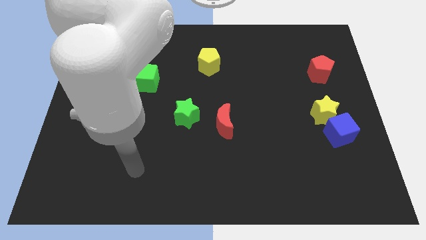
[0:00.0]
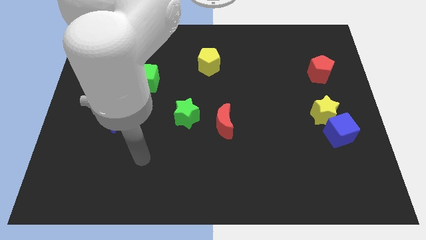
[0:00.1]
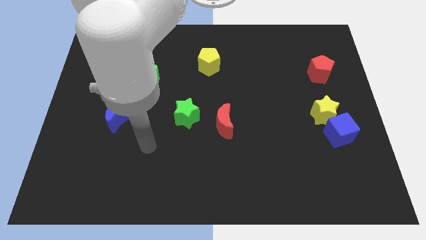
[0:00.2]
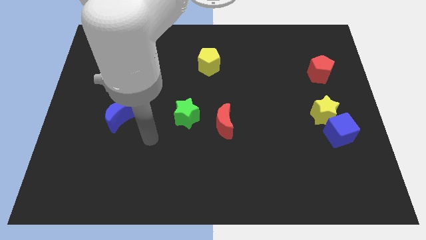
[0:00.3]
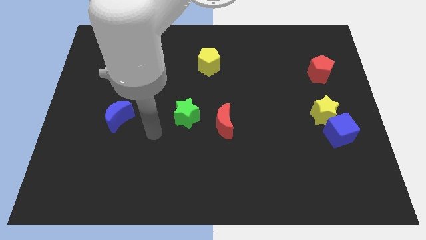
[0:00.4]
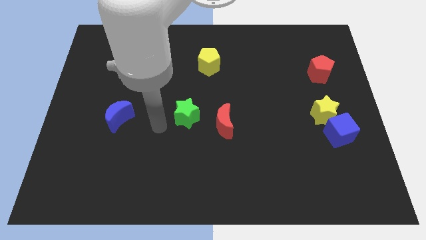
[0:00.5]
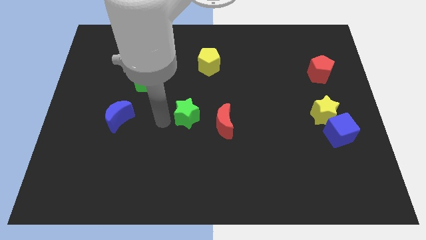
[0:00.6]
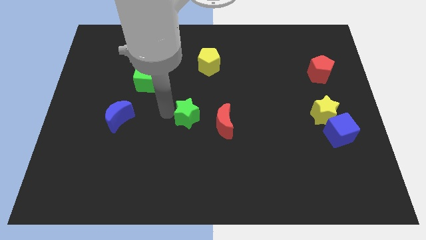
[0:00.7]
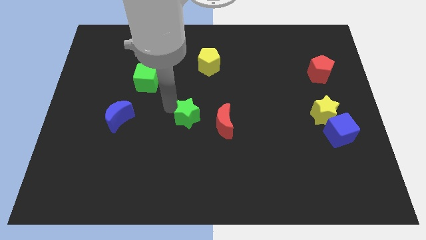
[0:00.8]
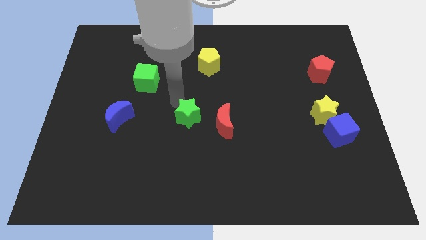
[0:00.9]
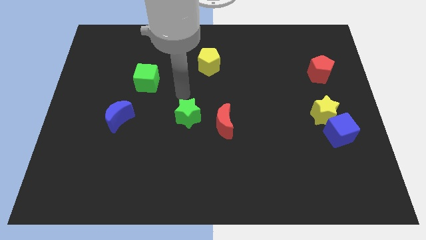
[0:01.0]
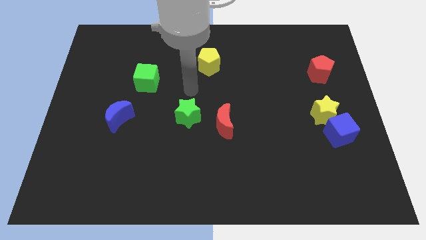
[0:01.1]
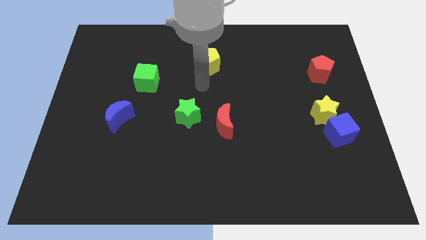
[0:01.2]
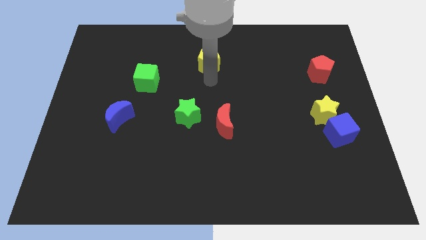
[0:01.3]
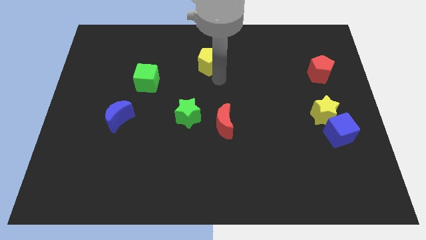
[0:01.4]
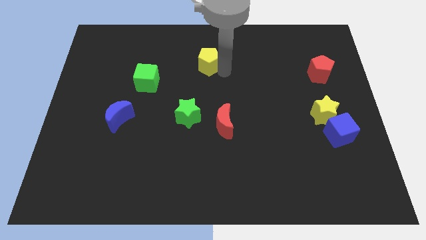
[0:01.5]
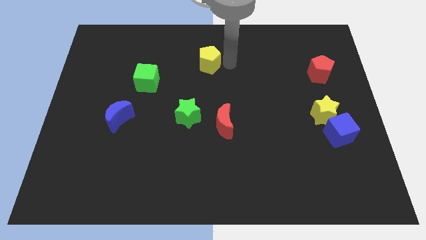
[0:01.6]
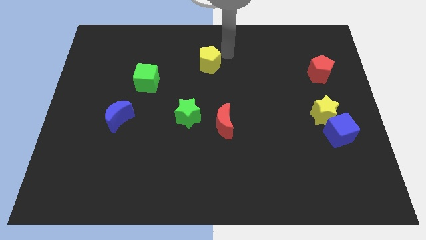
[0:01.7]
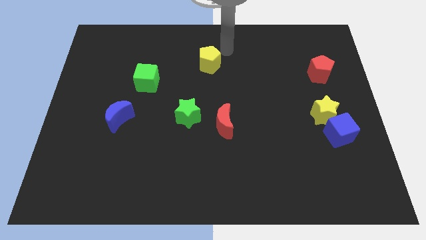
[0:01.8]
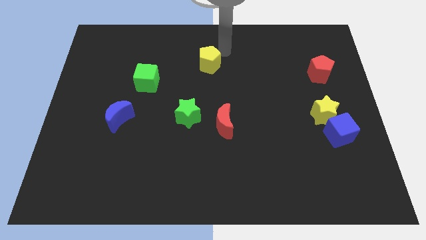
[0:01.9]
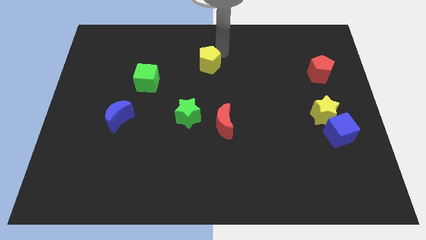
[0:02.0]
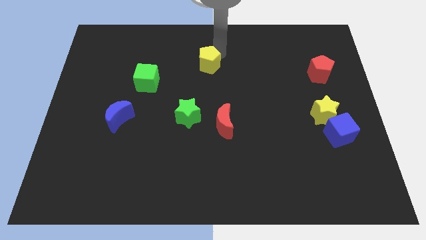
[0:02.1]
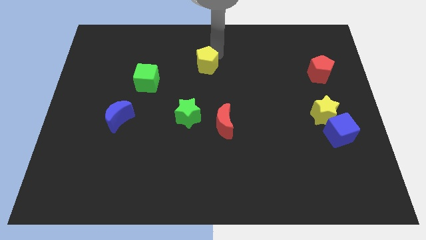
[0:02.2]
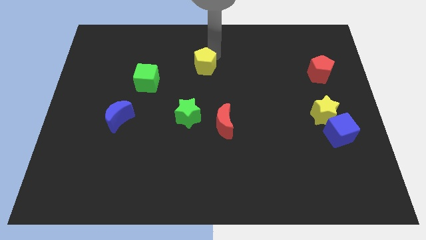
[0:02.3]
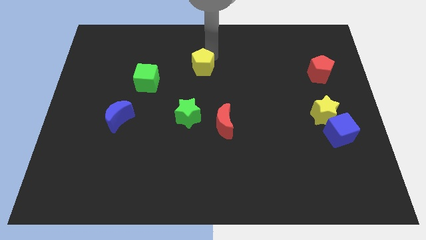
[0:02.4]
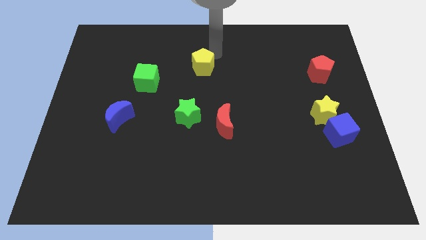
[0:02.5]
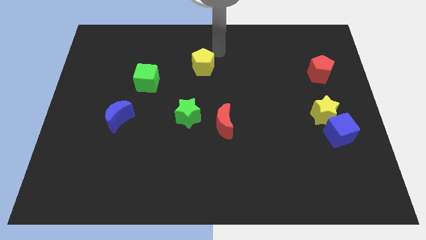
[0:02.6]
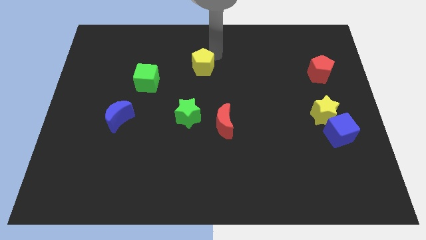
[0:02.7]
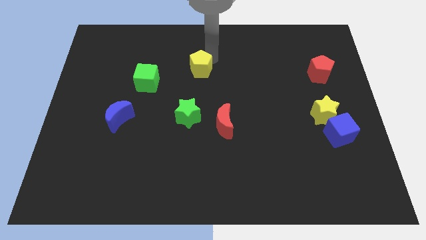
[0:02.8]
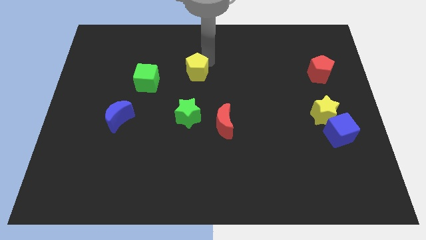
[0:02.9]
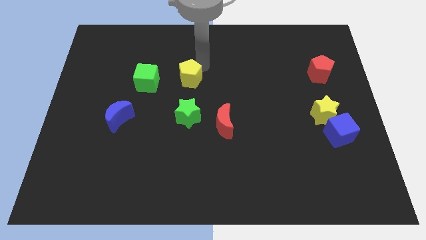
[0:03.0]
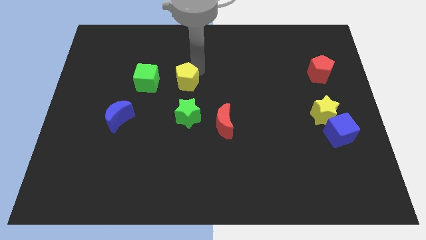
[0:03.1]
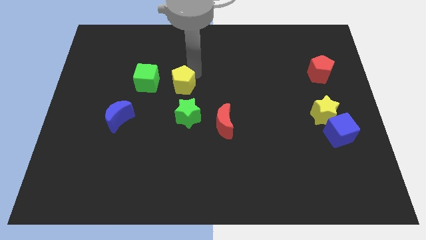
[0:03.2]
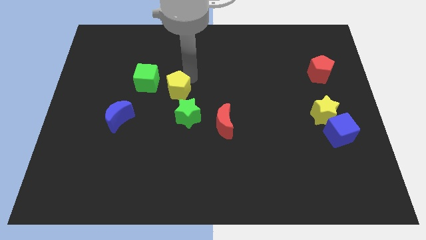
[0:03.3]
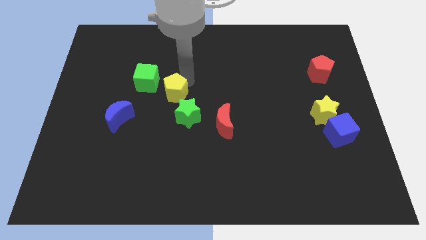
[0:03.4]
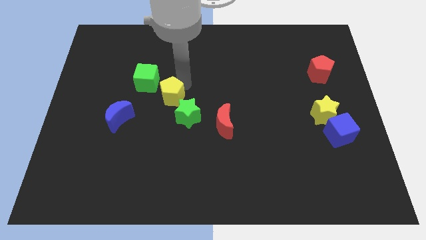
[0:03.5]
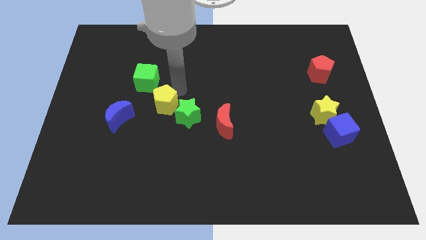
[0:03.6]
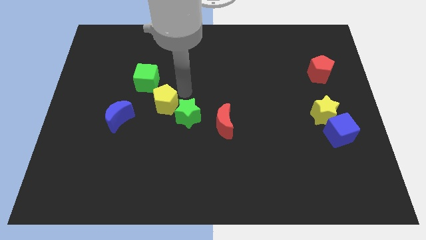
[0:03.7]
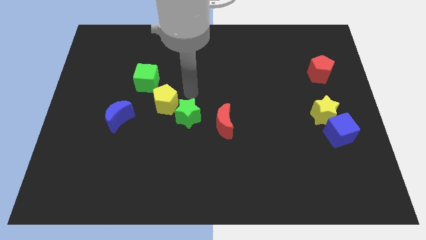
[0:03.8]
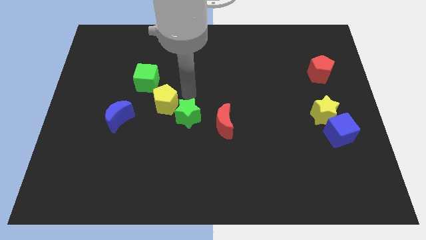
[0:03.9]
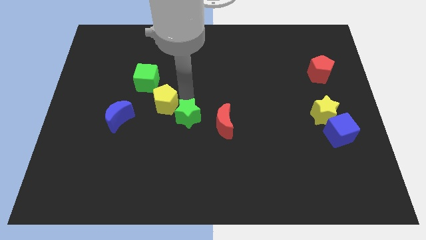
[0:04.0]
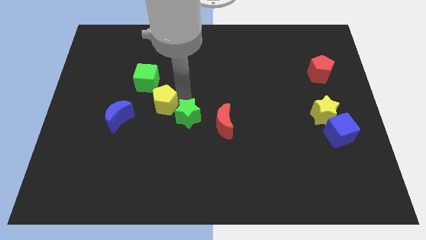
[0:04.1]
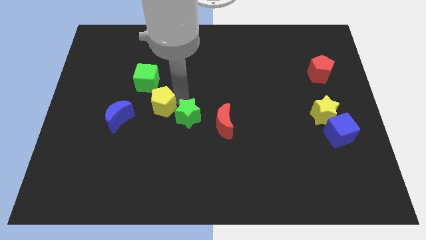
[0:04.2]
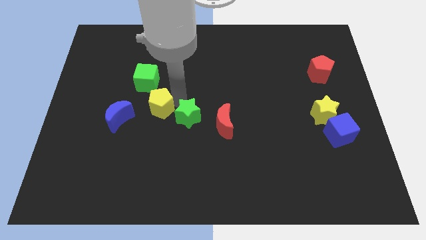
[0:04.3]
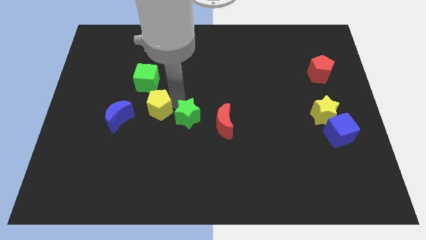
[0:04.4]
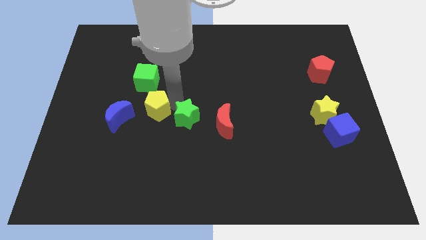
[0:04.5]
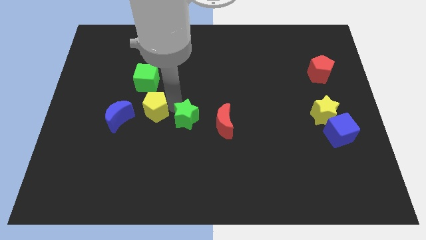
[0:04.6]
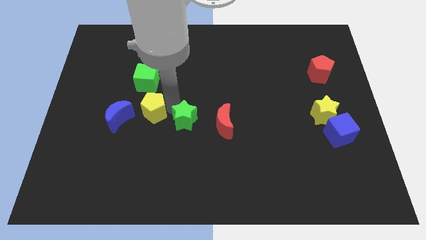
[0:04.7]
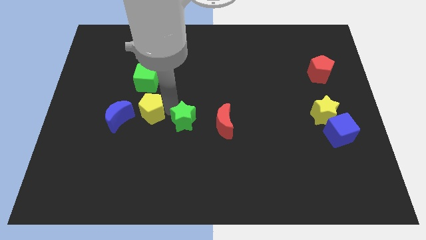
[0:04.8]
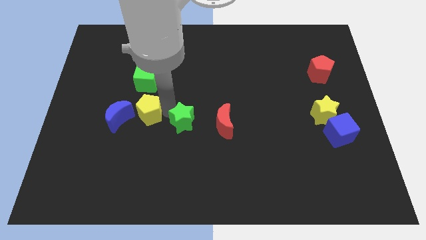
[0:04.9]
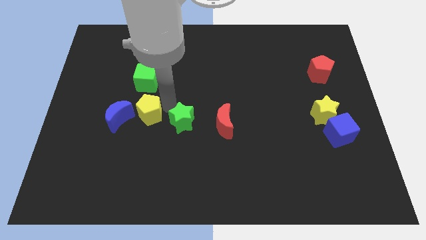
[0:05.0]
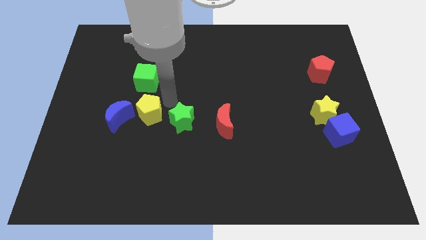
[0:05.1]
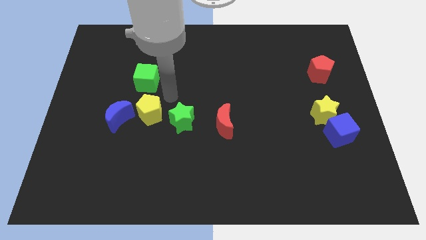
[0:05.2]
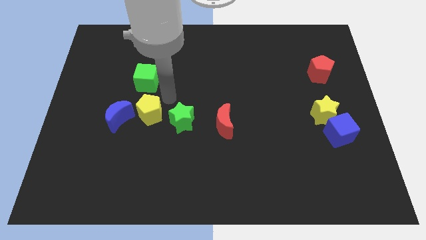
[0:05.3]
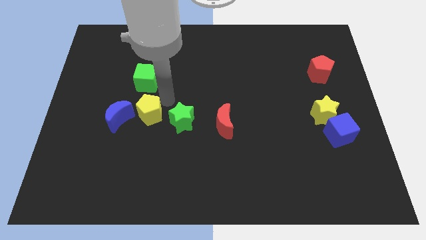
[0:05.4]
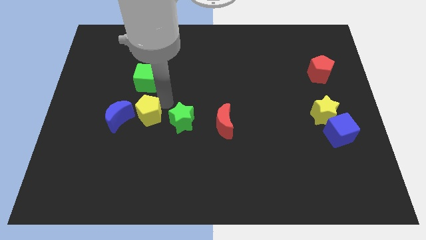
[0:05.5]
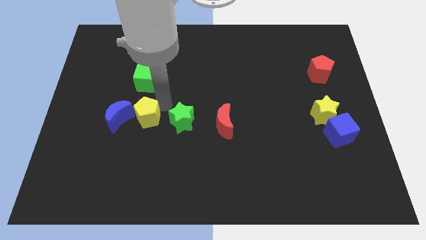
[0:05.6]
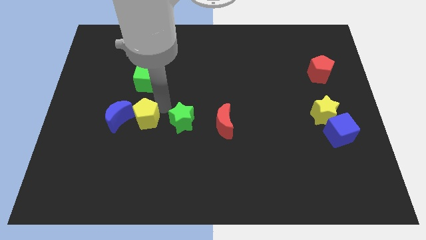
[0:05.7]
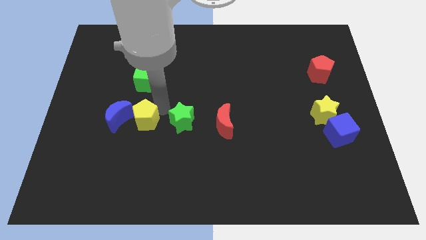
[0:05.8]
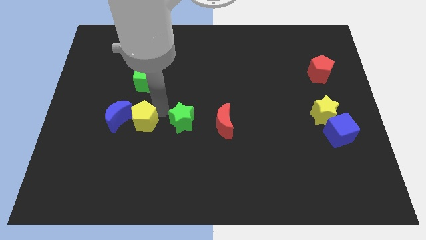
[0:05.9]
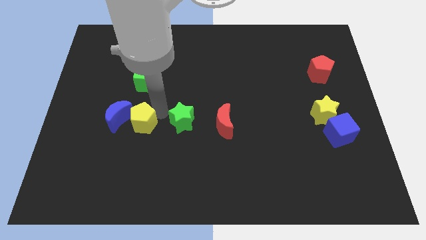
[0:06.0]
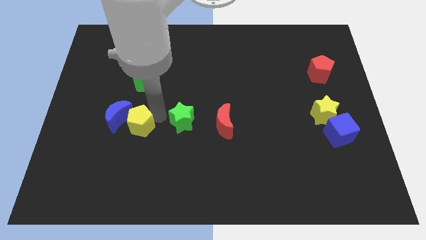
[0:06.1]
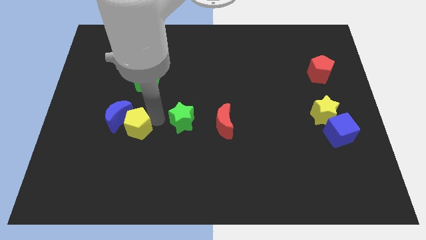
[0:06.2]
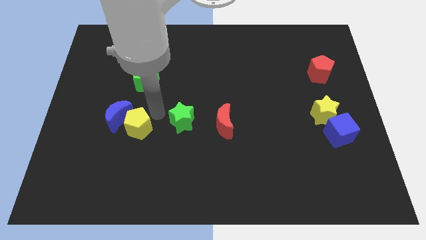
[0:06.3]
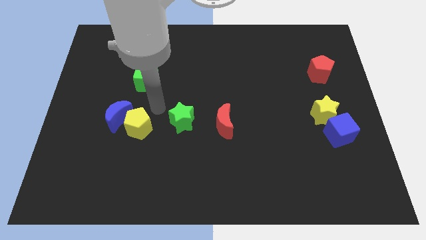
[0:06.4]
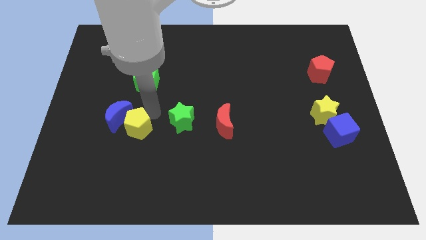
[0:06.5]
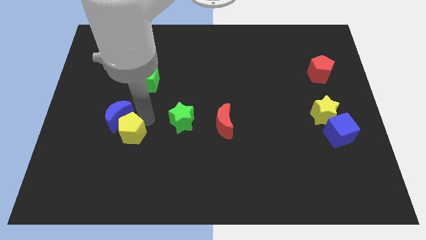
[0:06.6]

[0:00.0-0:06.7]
slide the yellow pentagon to the bottom side of the blue moon

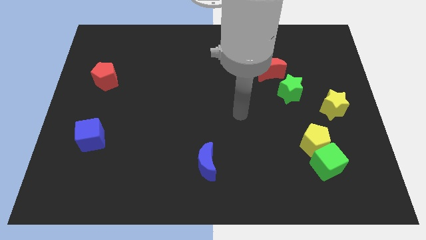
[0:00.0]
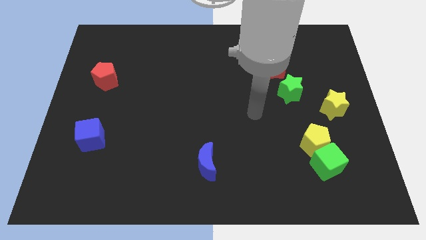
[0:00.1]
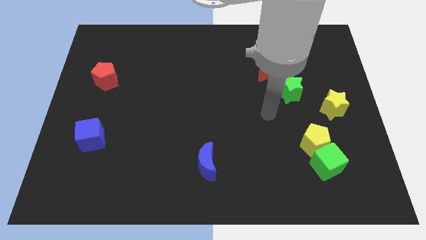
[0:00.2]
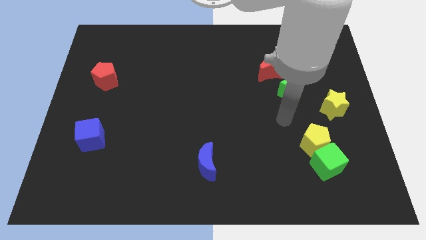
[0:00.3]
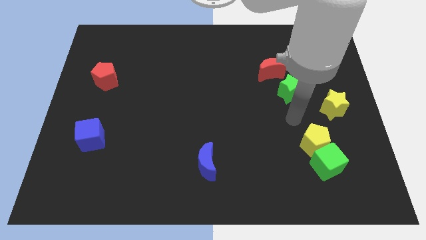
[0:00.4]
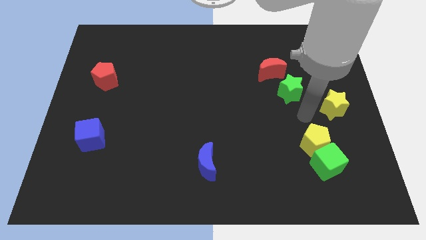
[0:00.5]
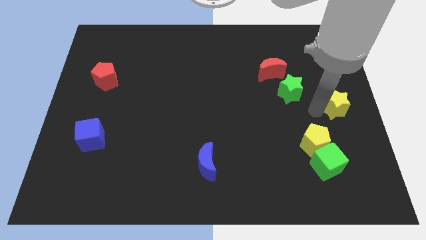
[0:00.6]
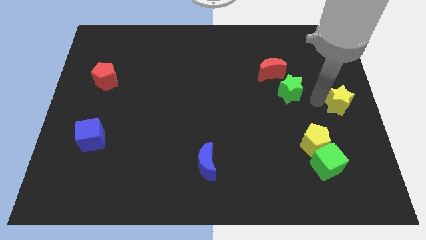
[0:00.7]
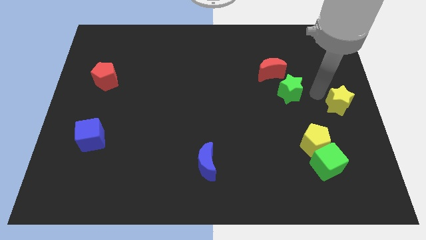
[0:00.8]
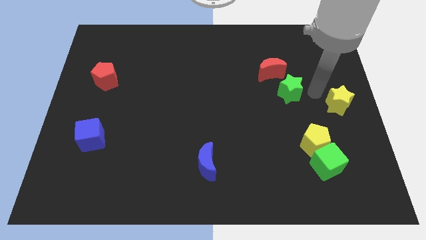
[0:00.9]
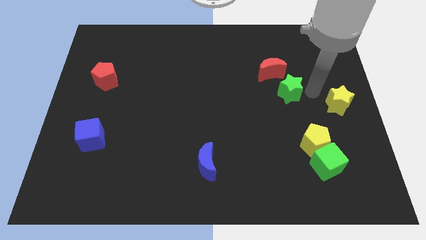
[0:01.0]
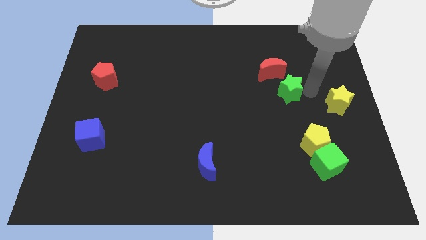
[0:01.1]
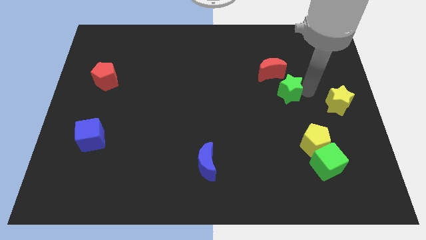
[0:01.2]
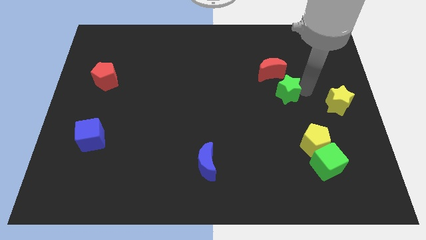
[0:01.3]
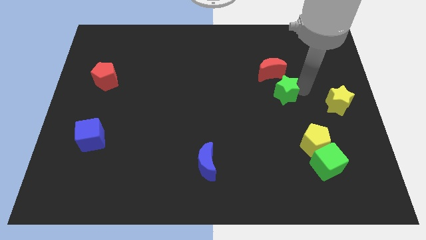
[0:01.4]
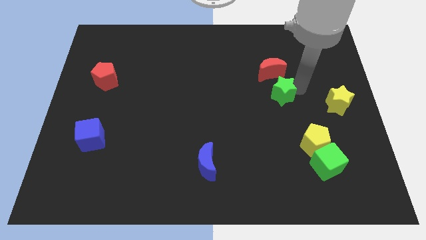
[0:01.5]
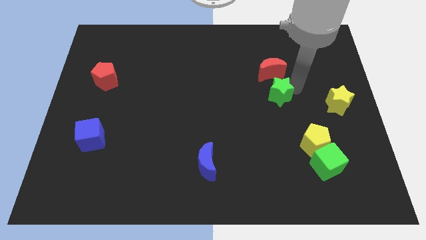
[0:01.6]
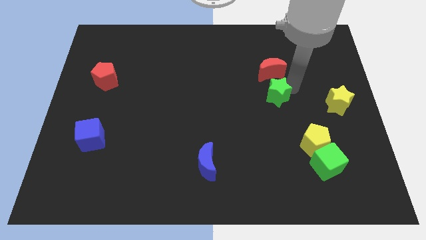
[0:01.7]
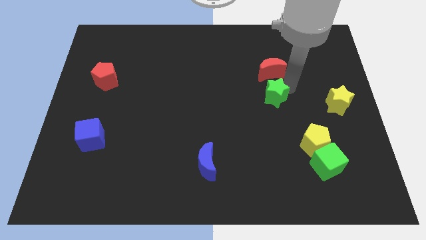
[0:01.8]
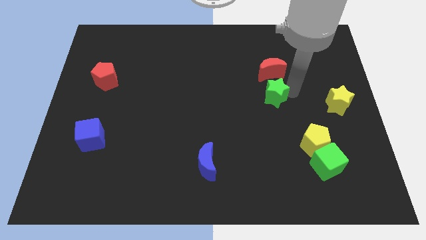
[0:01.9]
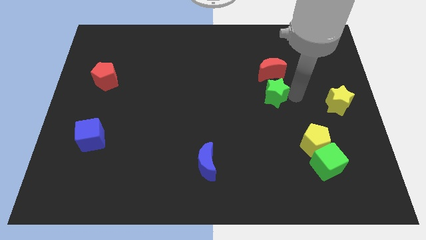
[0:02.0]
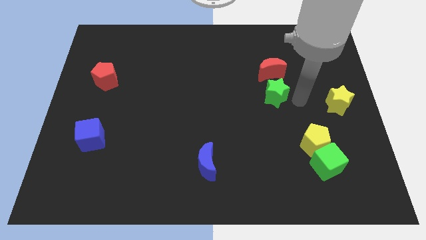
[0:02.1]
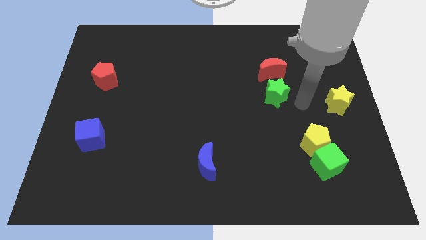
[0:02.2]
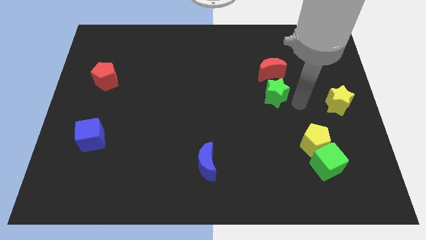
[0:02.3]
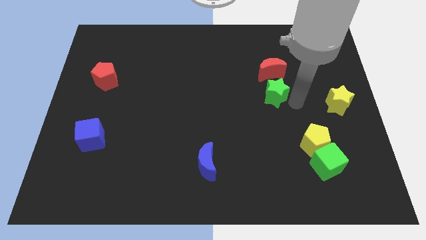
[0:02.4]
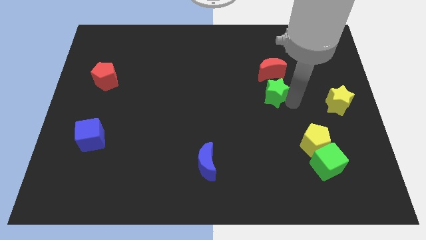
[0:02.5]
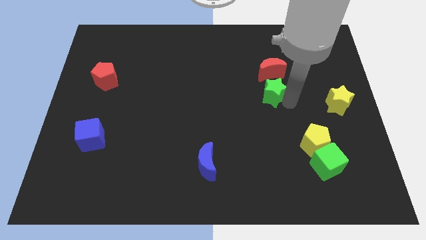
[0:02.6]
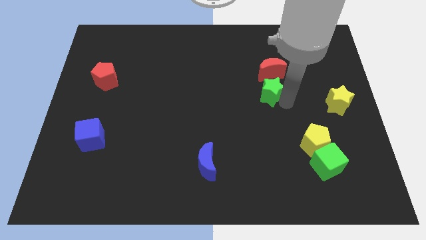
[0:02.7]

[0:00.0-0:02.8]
put the green star to the bottom left side of the red moon
